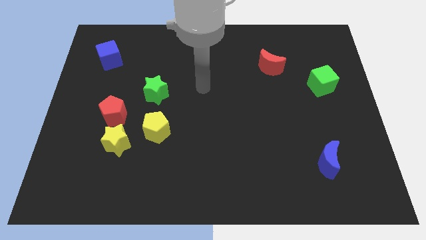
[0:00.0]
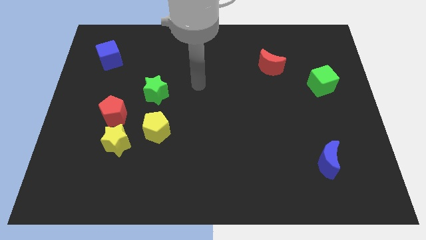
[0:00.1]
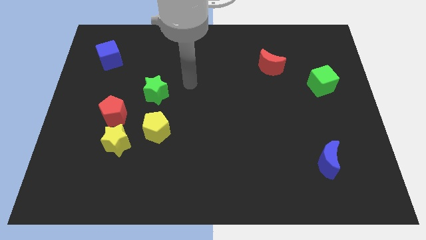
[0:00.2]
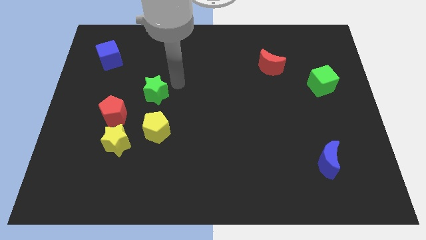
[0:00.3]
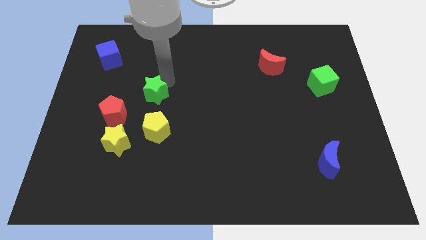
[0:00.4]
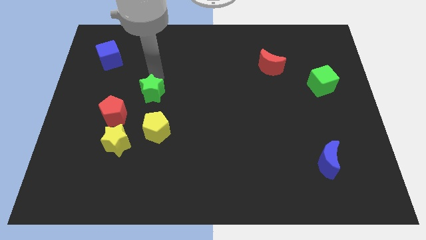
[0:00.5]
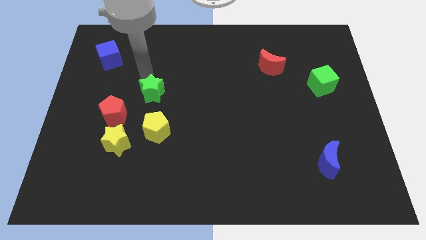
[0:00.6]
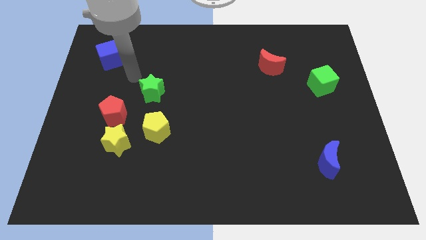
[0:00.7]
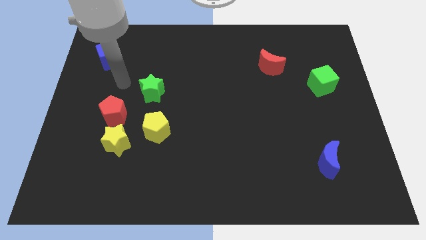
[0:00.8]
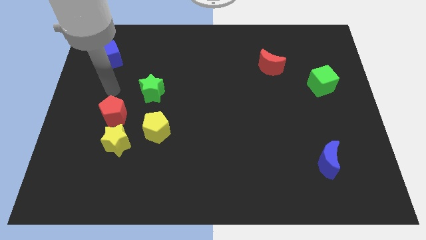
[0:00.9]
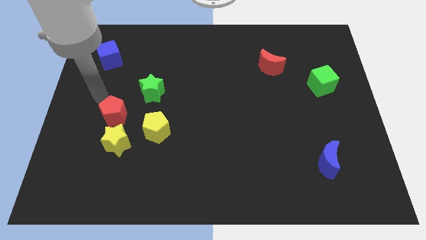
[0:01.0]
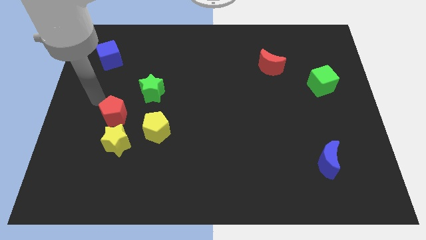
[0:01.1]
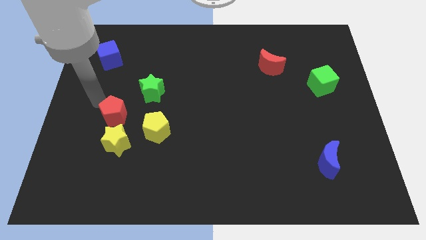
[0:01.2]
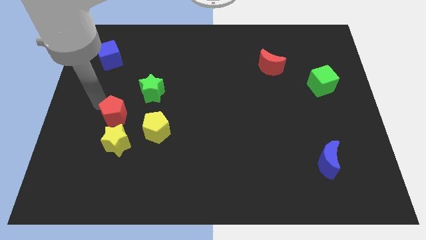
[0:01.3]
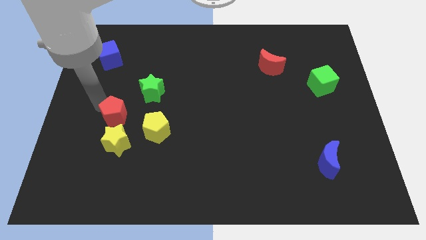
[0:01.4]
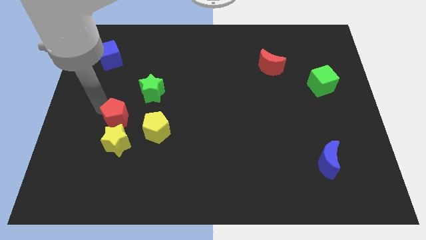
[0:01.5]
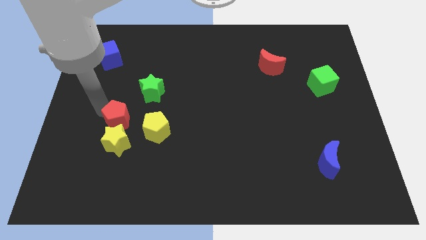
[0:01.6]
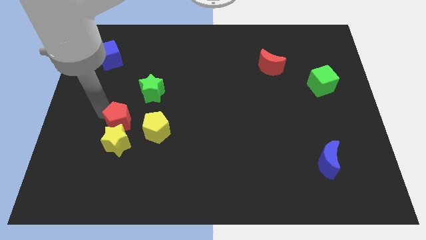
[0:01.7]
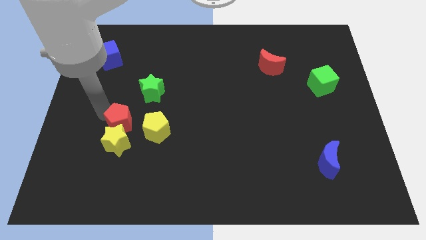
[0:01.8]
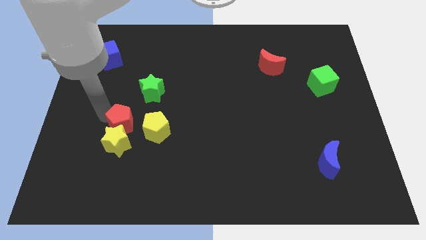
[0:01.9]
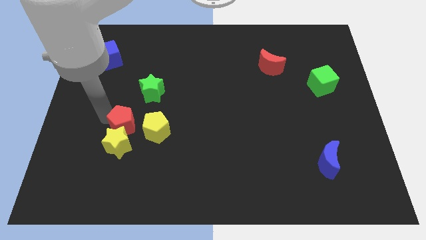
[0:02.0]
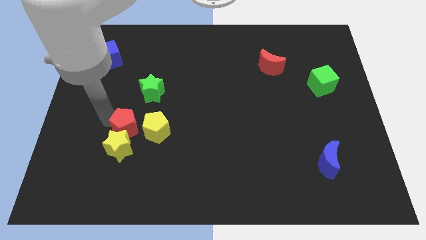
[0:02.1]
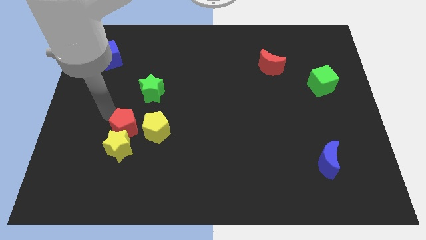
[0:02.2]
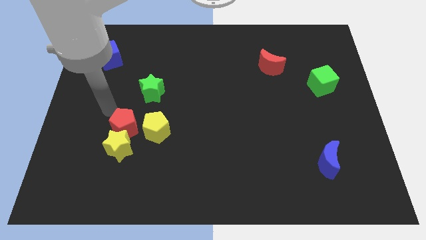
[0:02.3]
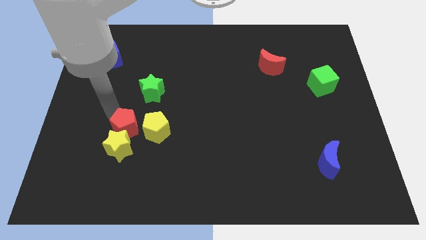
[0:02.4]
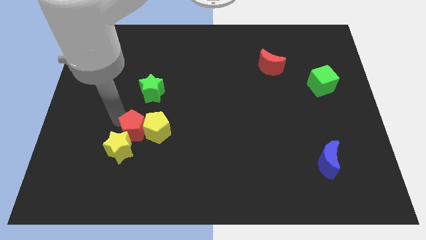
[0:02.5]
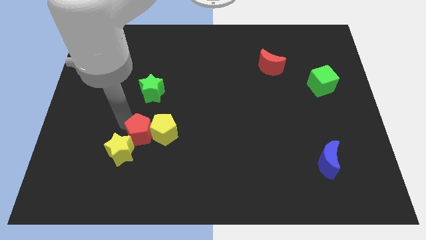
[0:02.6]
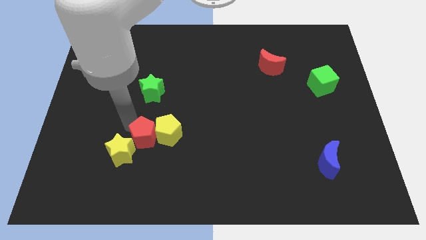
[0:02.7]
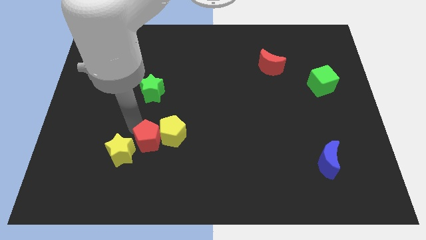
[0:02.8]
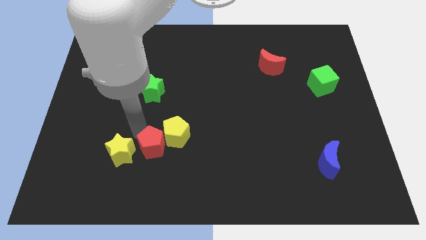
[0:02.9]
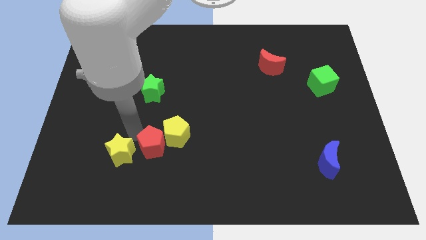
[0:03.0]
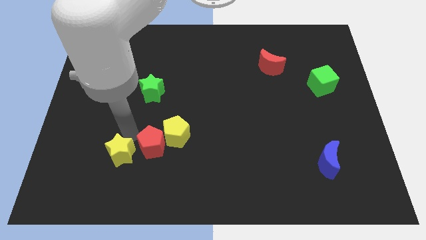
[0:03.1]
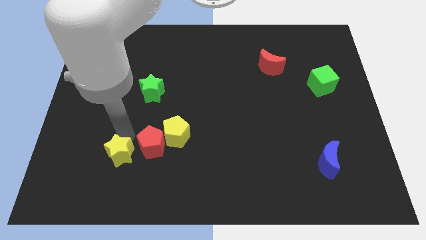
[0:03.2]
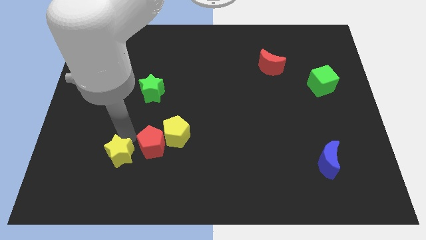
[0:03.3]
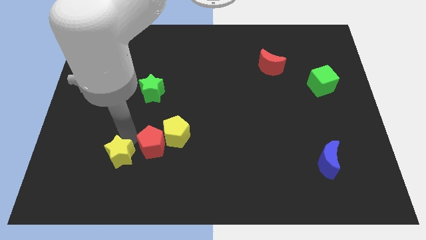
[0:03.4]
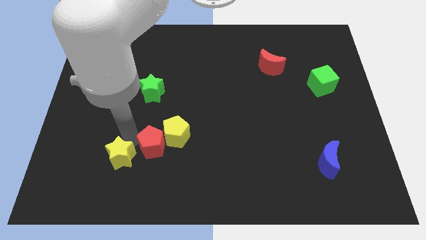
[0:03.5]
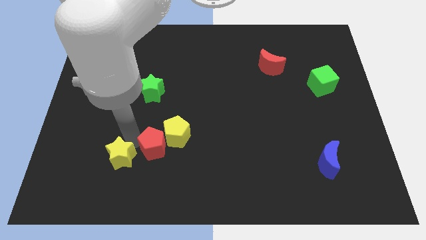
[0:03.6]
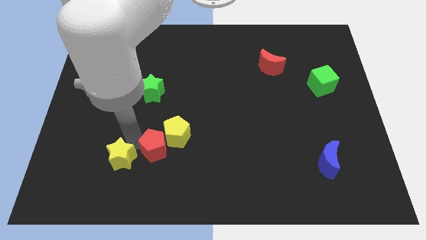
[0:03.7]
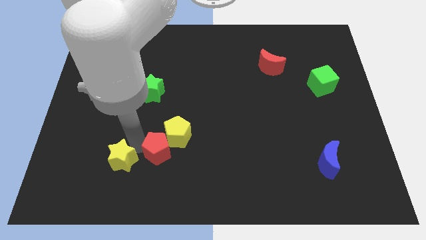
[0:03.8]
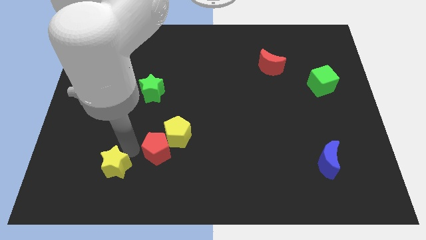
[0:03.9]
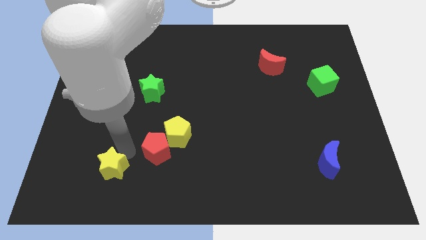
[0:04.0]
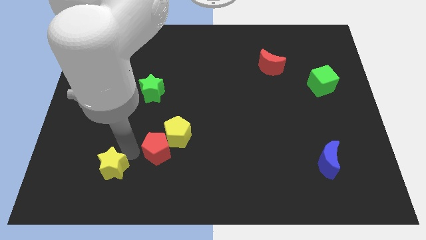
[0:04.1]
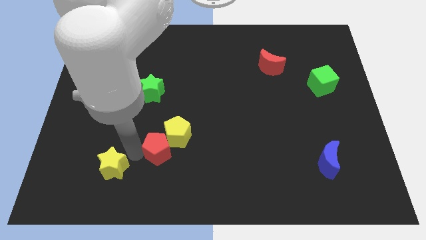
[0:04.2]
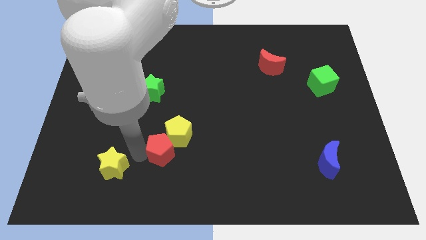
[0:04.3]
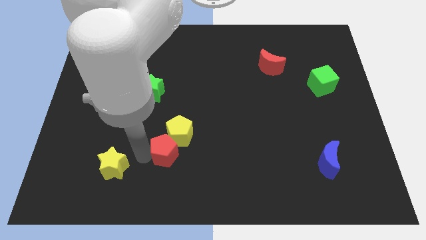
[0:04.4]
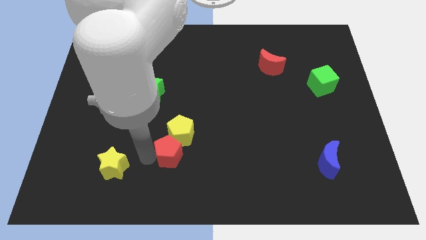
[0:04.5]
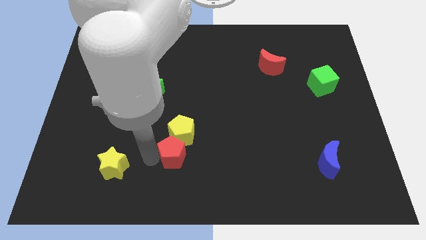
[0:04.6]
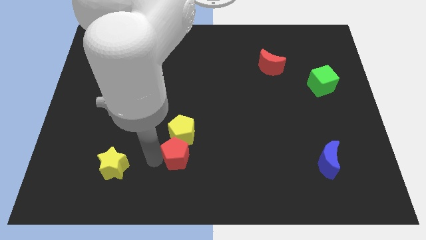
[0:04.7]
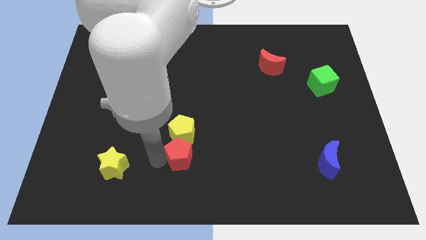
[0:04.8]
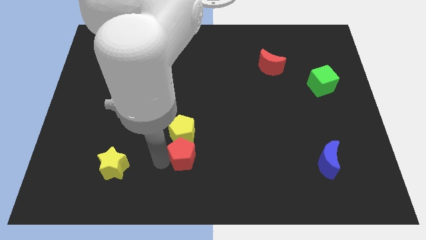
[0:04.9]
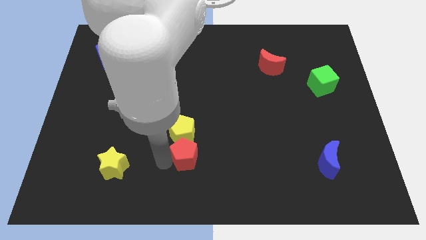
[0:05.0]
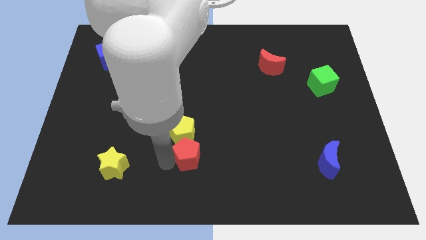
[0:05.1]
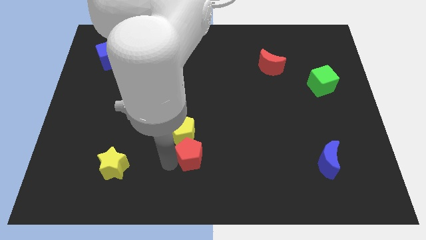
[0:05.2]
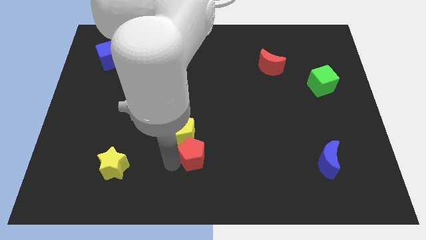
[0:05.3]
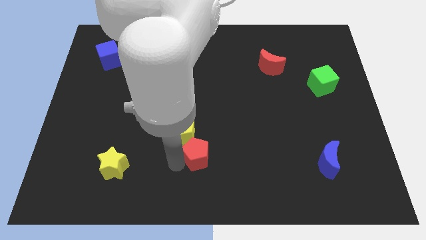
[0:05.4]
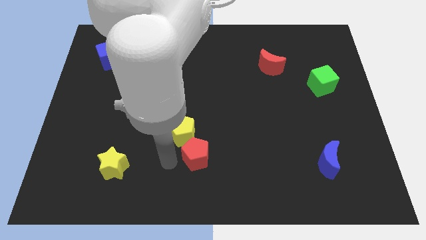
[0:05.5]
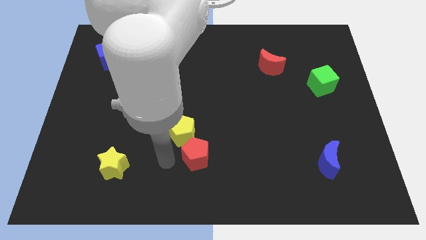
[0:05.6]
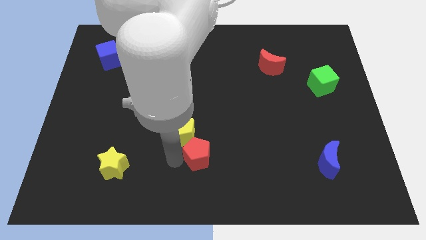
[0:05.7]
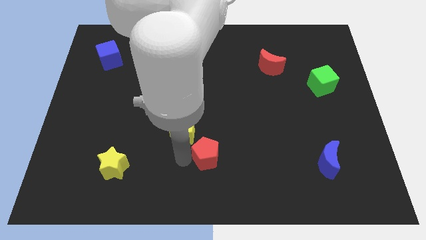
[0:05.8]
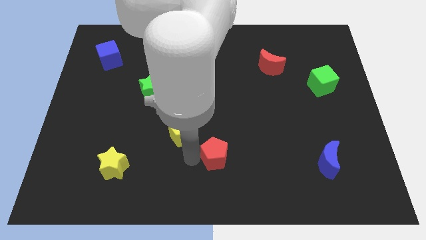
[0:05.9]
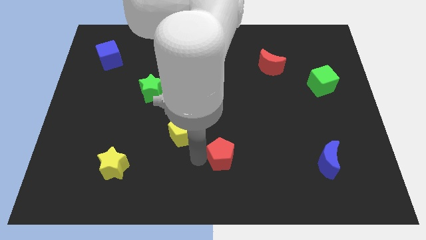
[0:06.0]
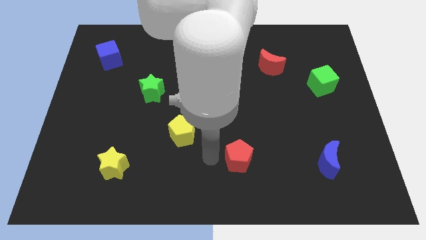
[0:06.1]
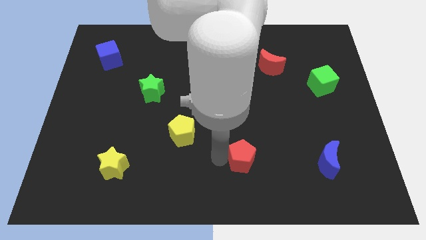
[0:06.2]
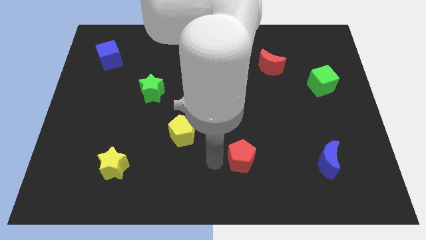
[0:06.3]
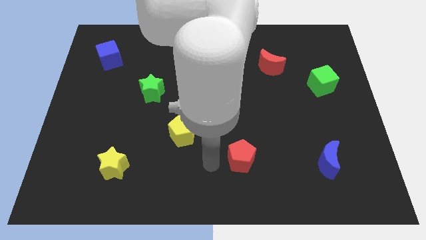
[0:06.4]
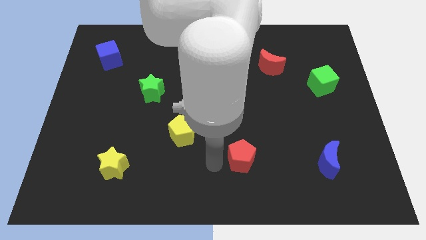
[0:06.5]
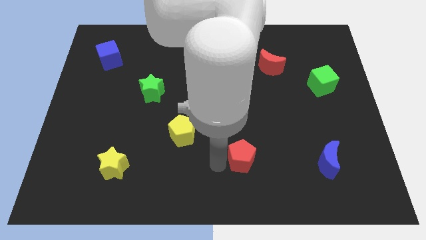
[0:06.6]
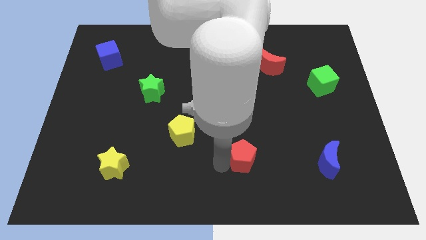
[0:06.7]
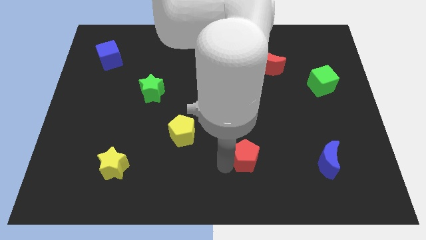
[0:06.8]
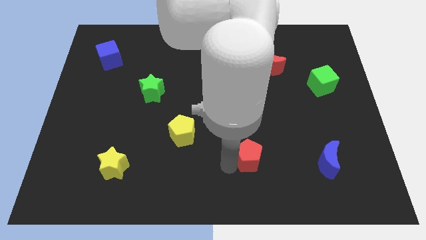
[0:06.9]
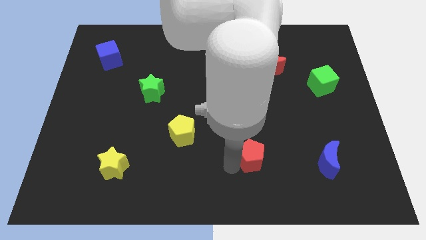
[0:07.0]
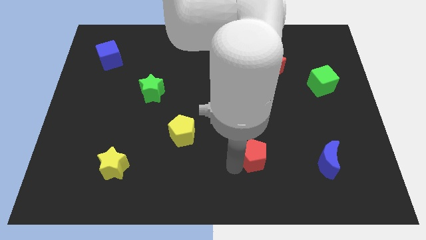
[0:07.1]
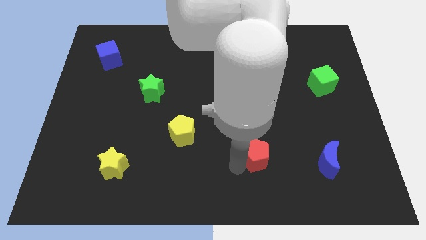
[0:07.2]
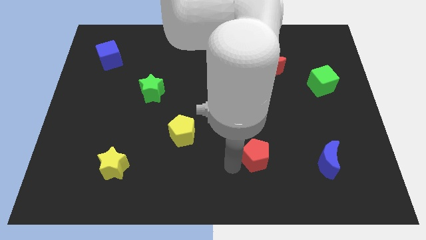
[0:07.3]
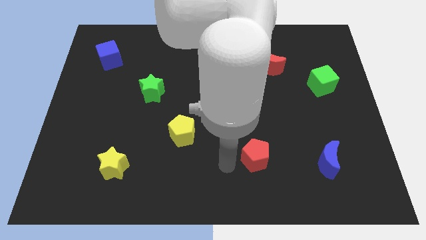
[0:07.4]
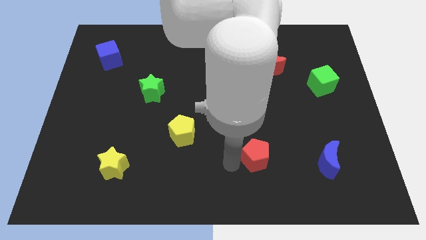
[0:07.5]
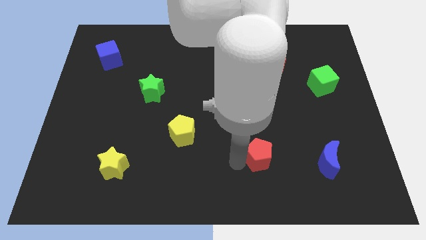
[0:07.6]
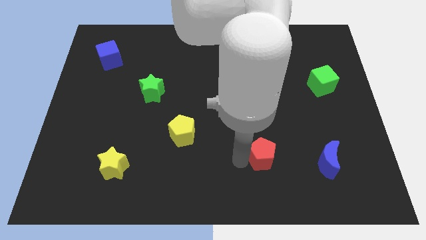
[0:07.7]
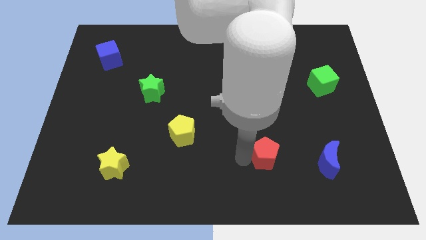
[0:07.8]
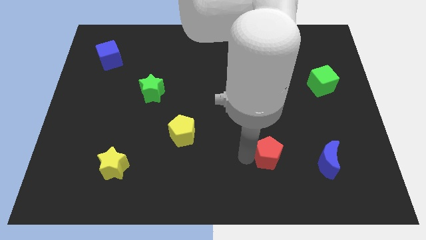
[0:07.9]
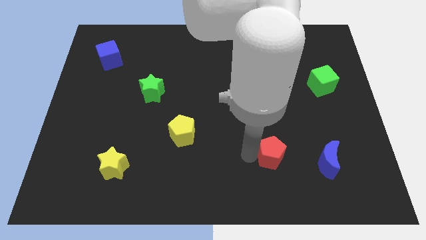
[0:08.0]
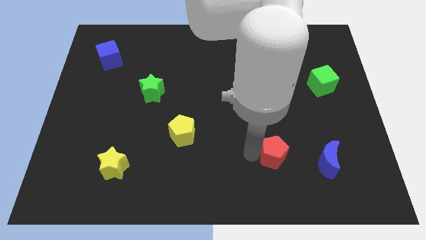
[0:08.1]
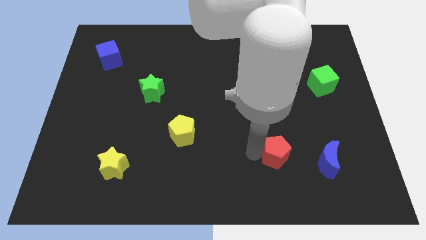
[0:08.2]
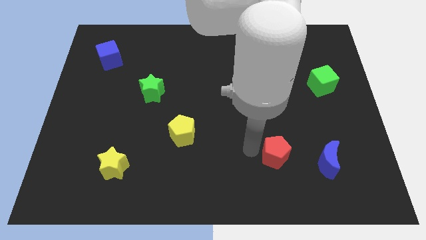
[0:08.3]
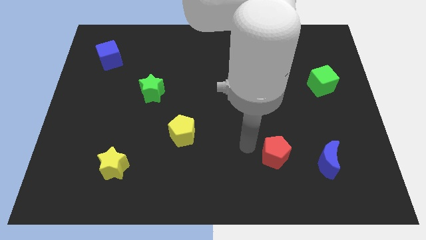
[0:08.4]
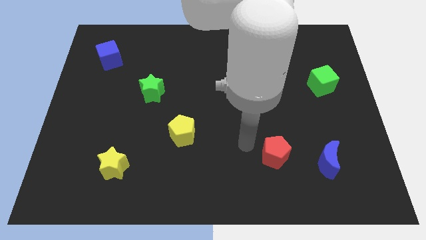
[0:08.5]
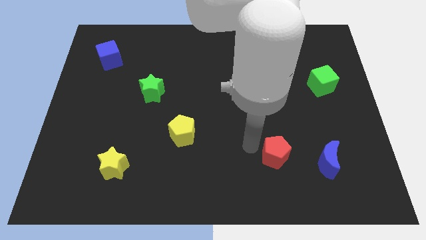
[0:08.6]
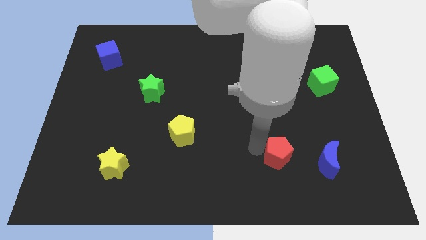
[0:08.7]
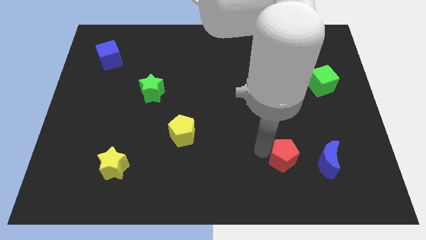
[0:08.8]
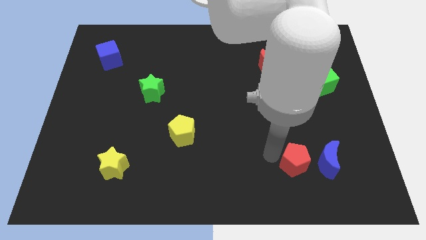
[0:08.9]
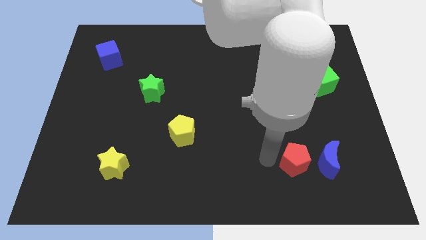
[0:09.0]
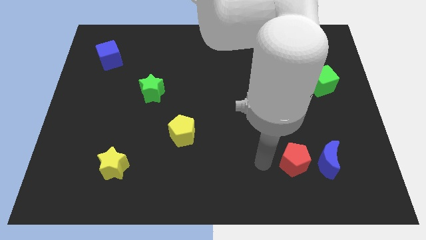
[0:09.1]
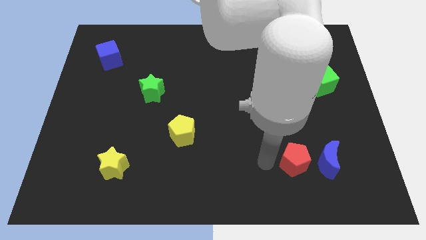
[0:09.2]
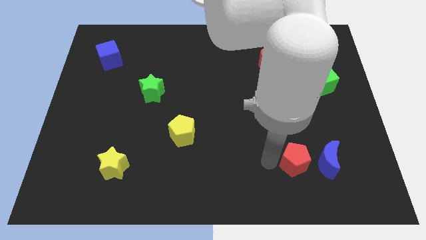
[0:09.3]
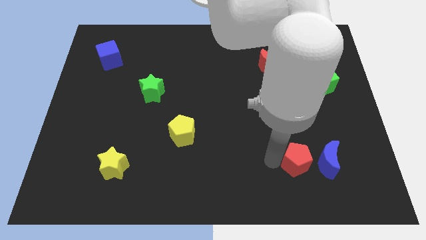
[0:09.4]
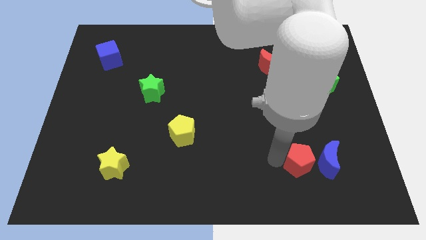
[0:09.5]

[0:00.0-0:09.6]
move the red pentagon to the blue moon
